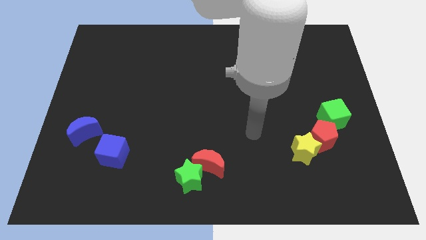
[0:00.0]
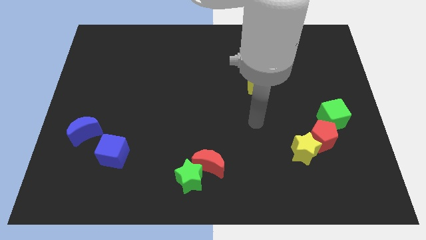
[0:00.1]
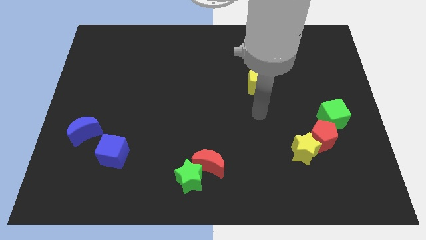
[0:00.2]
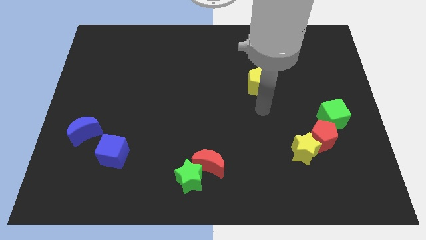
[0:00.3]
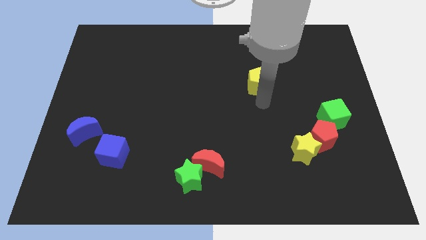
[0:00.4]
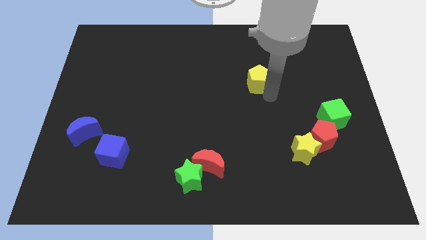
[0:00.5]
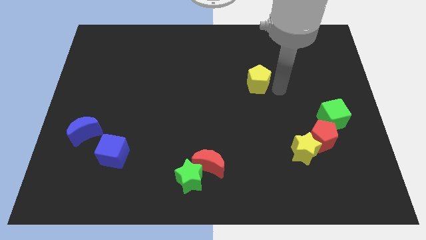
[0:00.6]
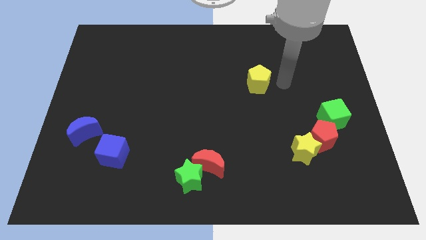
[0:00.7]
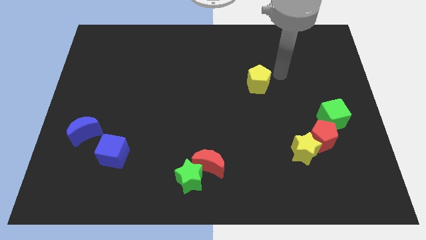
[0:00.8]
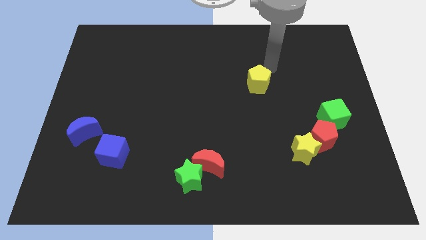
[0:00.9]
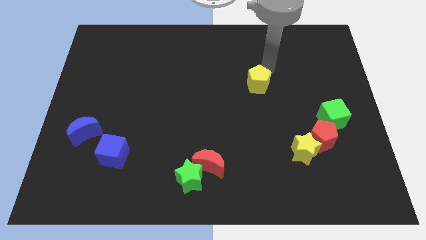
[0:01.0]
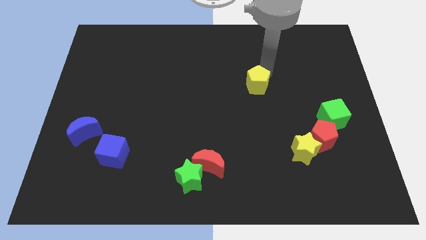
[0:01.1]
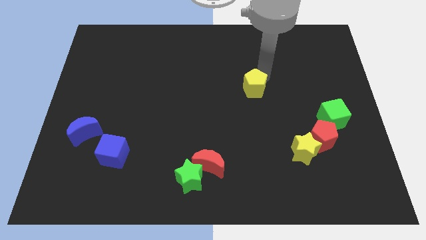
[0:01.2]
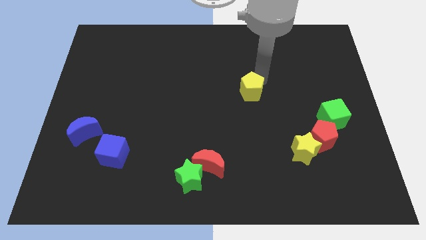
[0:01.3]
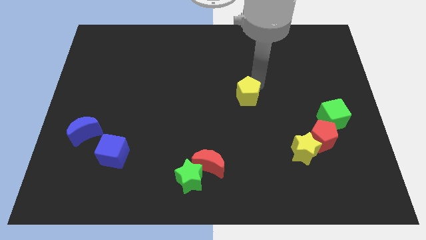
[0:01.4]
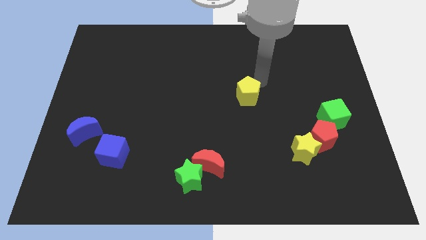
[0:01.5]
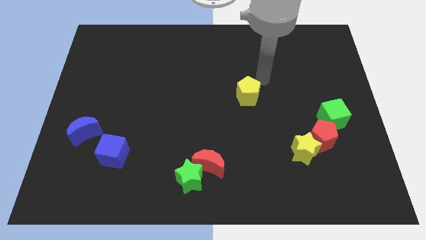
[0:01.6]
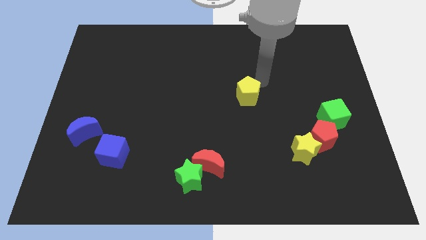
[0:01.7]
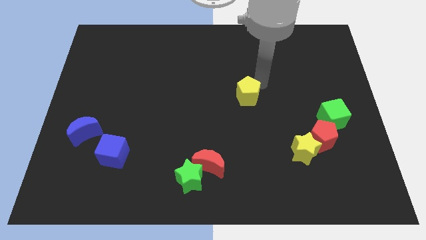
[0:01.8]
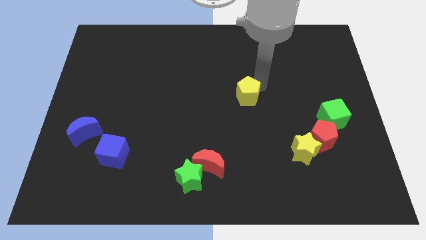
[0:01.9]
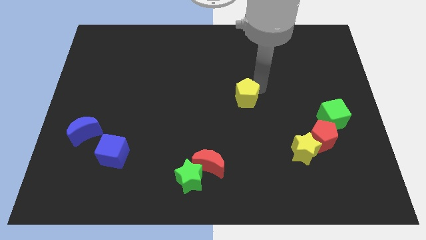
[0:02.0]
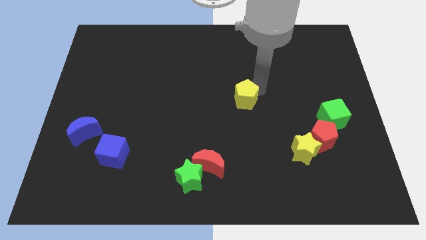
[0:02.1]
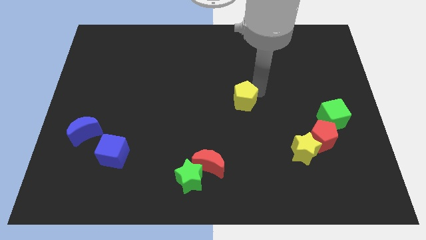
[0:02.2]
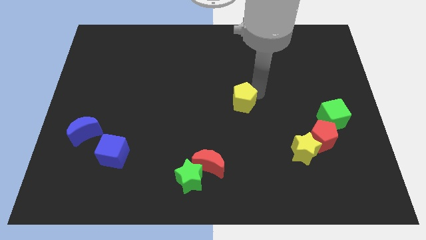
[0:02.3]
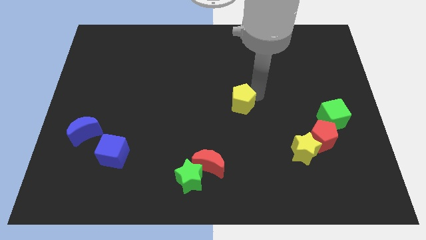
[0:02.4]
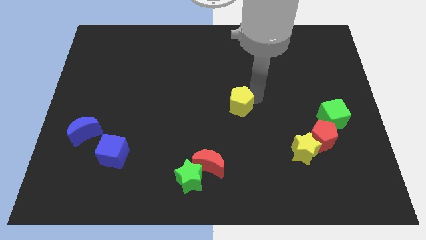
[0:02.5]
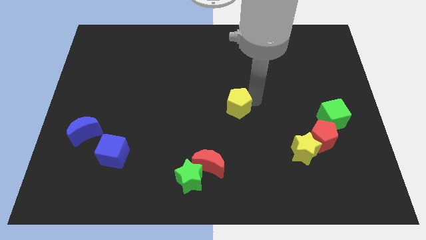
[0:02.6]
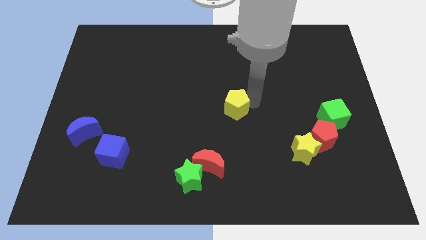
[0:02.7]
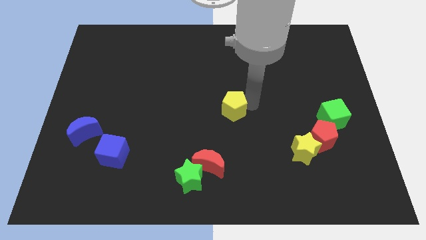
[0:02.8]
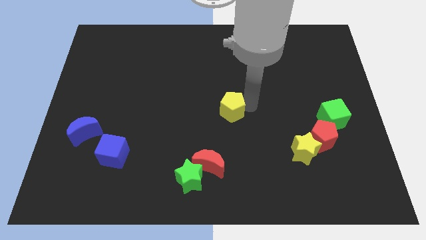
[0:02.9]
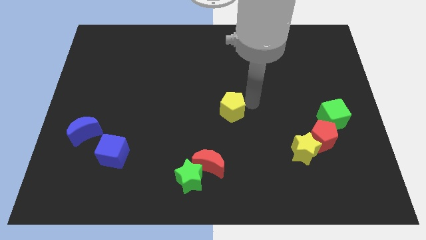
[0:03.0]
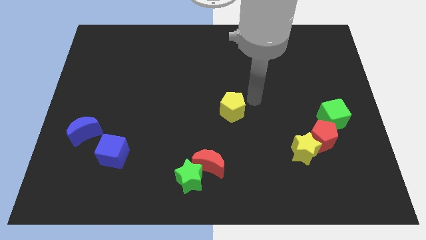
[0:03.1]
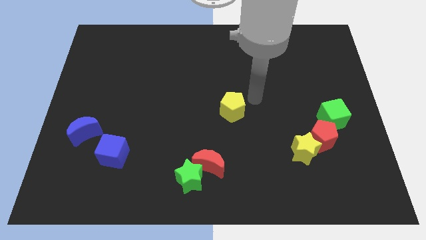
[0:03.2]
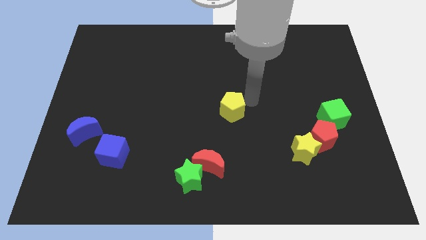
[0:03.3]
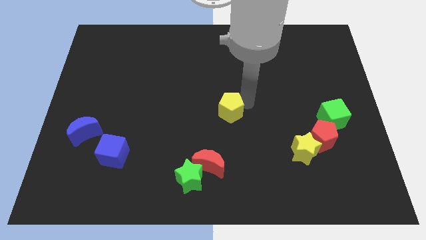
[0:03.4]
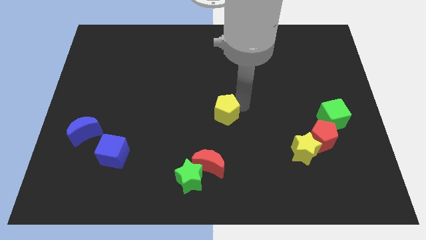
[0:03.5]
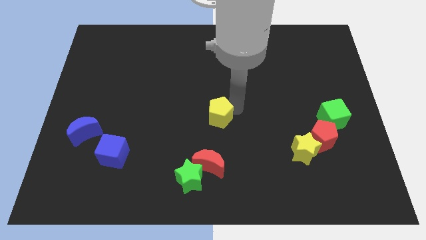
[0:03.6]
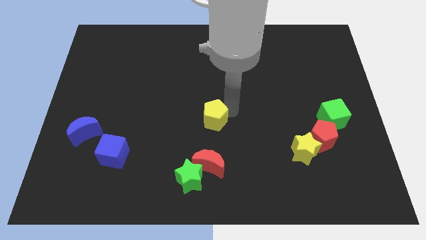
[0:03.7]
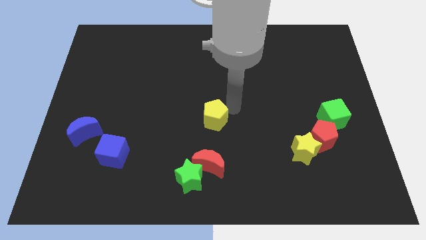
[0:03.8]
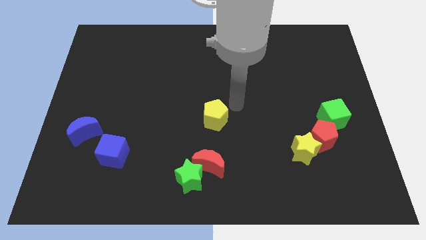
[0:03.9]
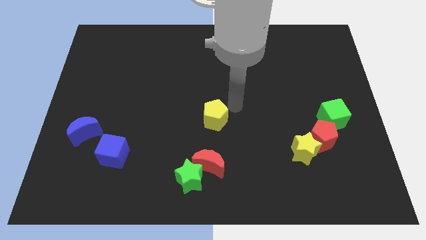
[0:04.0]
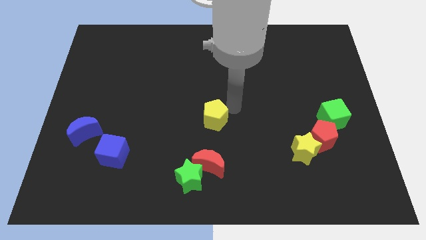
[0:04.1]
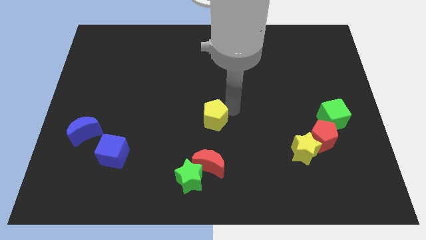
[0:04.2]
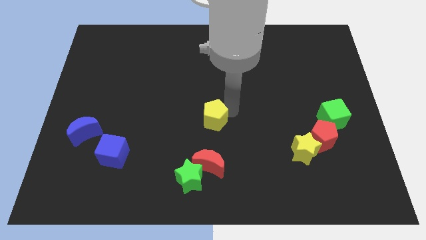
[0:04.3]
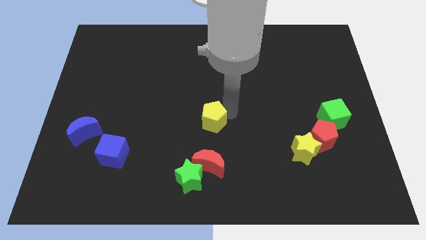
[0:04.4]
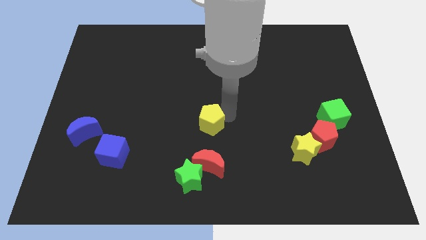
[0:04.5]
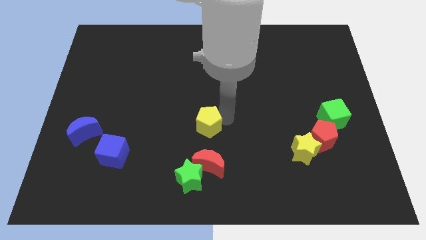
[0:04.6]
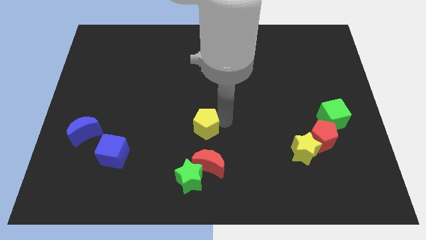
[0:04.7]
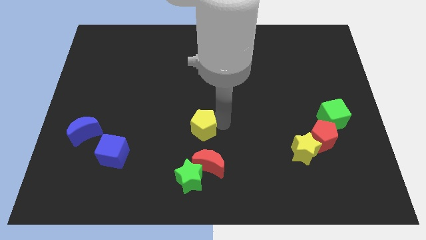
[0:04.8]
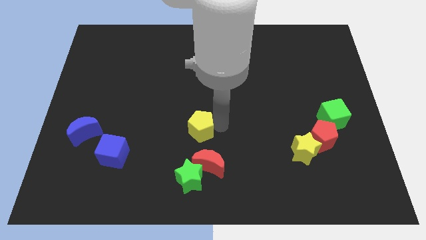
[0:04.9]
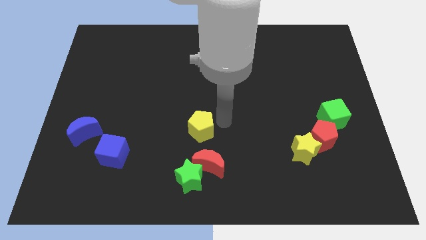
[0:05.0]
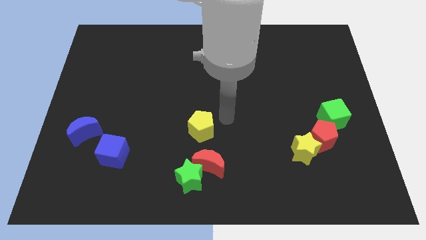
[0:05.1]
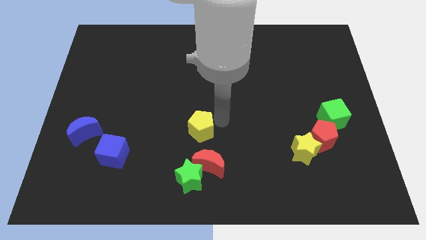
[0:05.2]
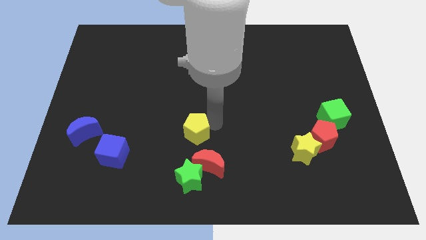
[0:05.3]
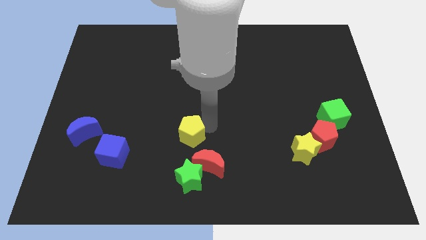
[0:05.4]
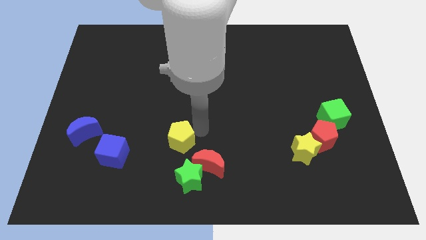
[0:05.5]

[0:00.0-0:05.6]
move the yellow pentagon to the right side of the blue cube

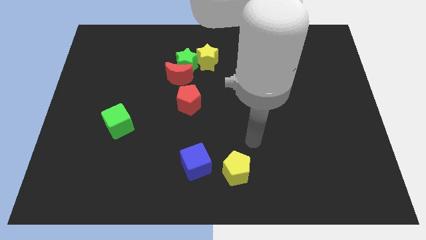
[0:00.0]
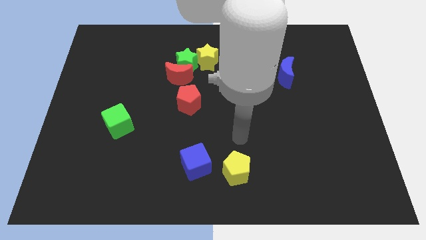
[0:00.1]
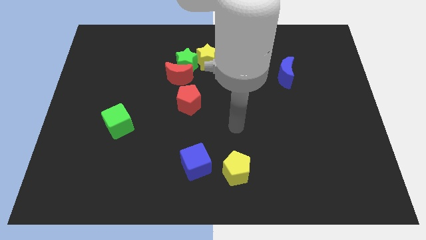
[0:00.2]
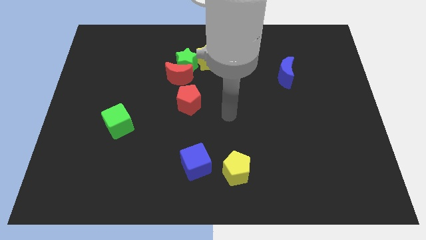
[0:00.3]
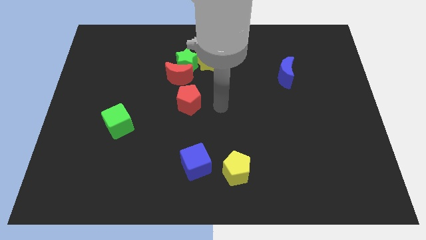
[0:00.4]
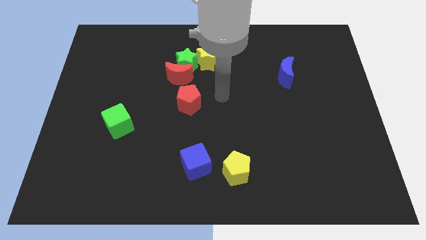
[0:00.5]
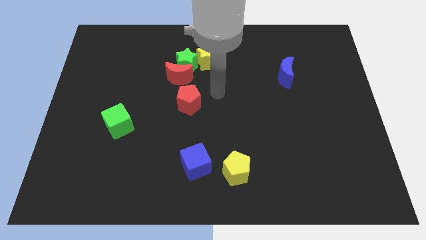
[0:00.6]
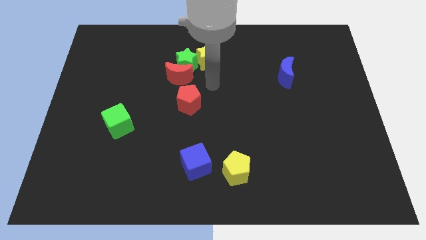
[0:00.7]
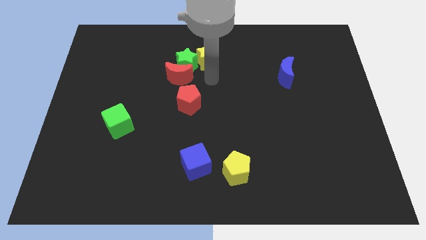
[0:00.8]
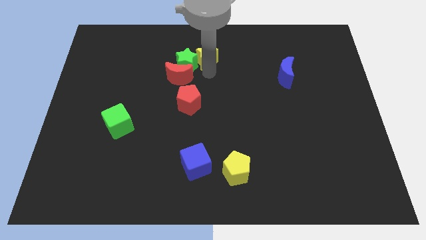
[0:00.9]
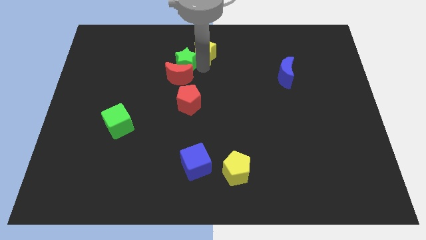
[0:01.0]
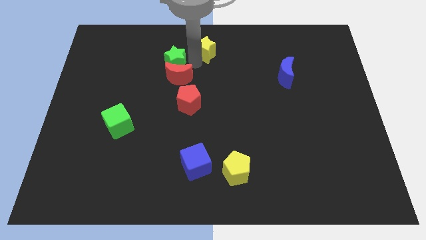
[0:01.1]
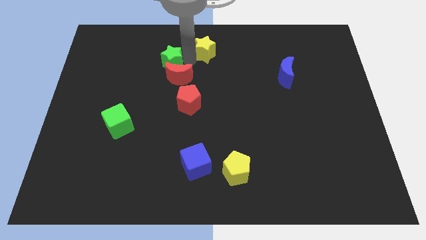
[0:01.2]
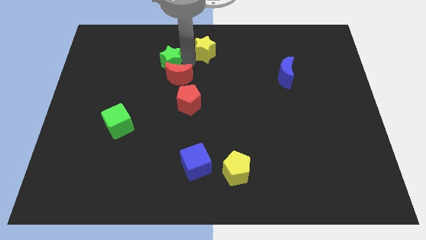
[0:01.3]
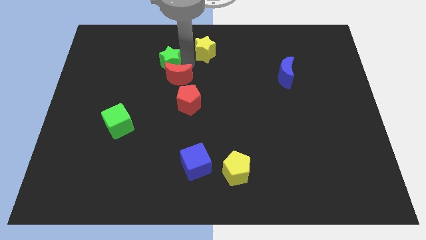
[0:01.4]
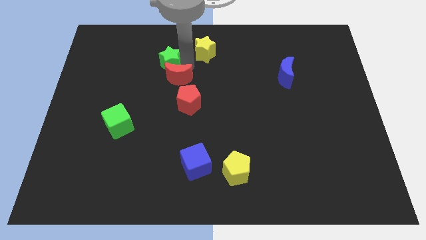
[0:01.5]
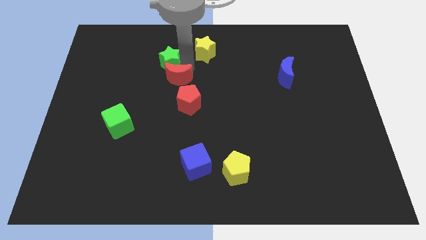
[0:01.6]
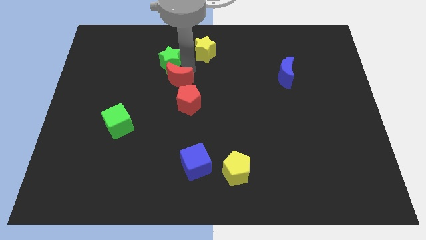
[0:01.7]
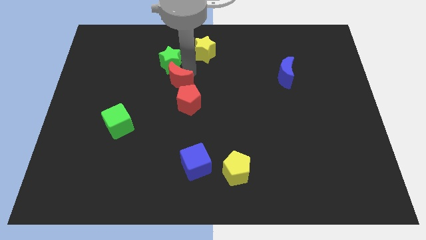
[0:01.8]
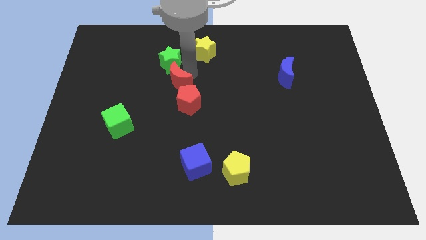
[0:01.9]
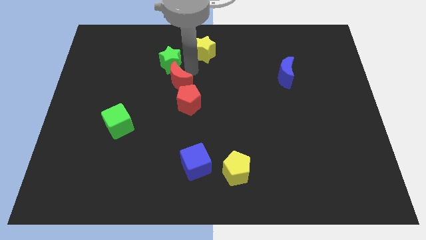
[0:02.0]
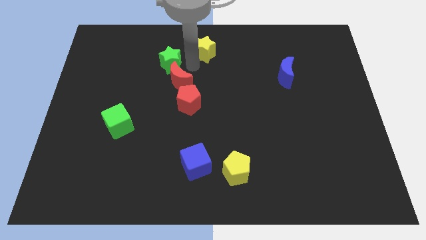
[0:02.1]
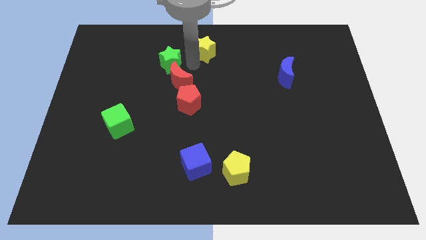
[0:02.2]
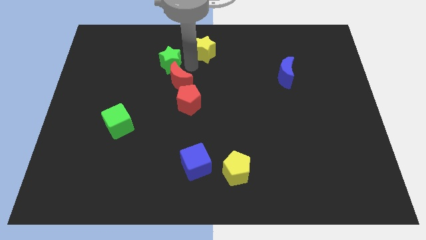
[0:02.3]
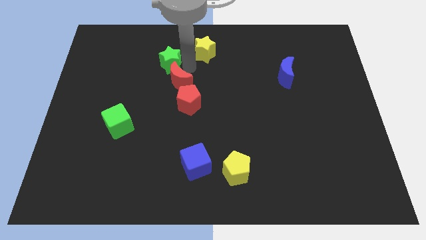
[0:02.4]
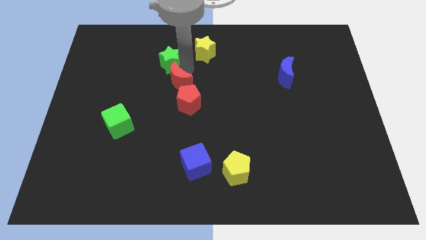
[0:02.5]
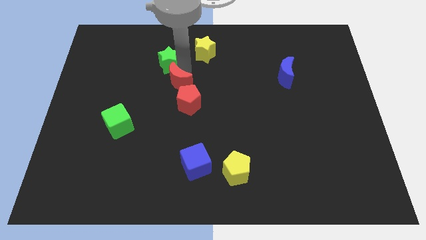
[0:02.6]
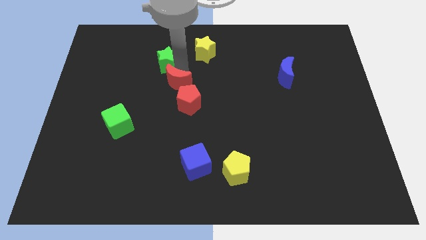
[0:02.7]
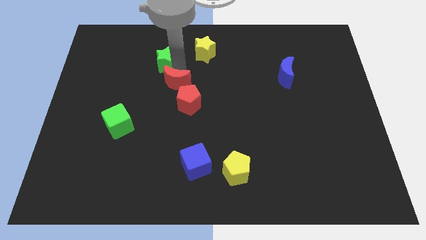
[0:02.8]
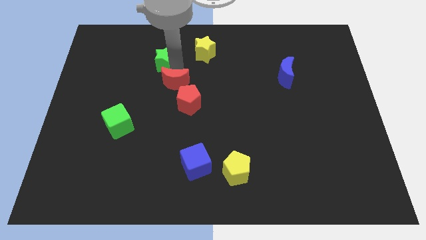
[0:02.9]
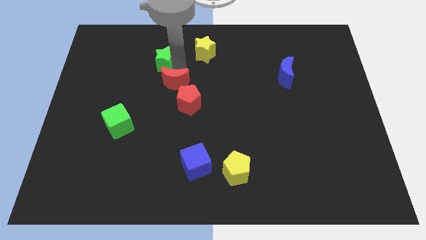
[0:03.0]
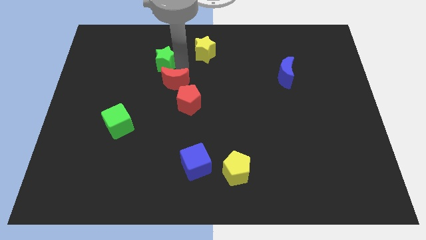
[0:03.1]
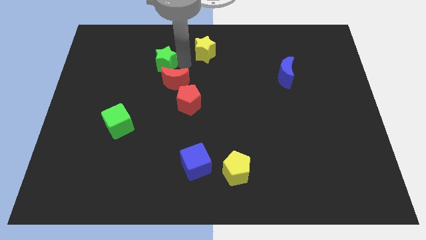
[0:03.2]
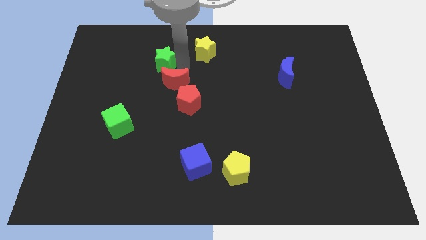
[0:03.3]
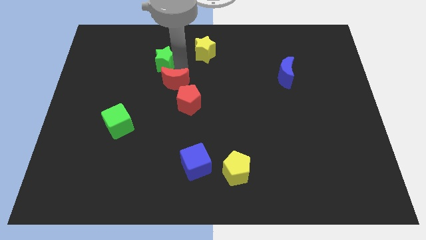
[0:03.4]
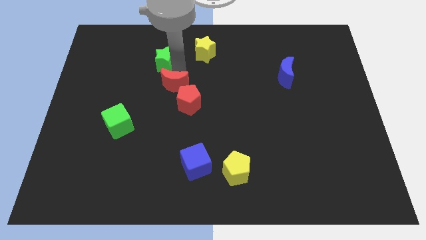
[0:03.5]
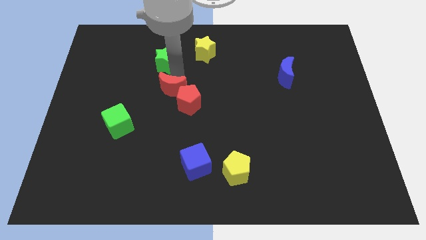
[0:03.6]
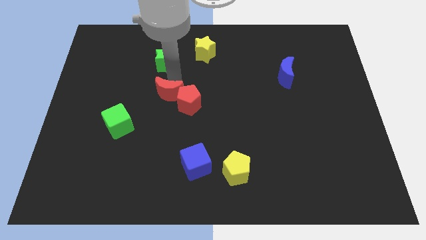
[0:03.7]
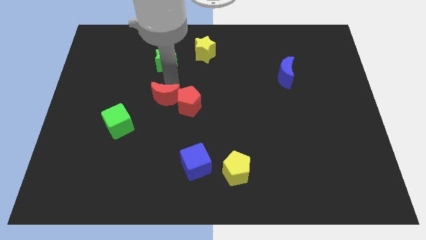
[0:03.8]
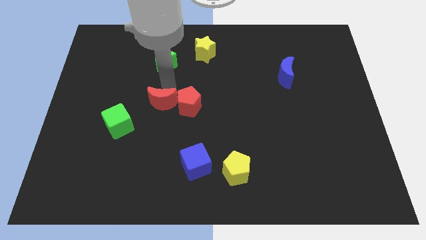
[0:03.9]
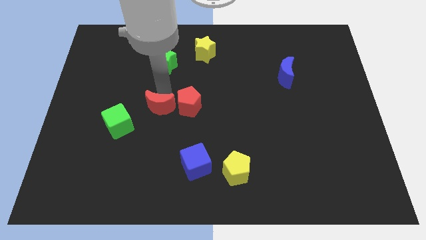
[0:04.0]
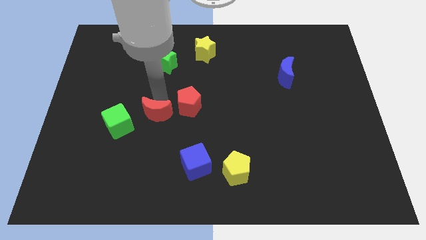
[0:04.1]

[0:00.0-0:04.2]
push the red moon right of the green cube
